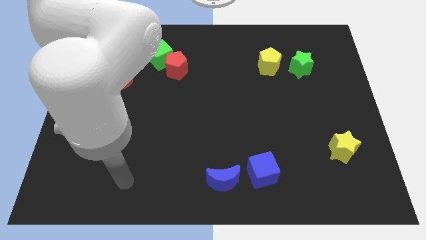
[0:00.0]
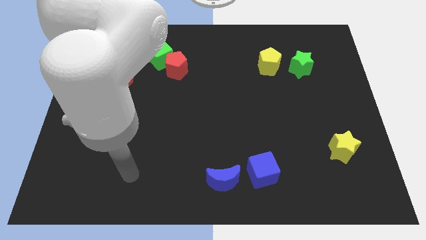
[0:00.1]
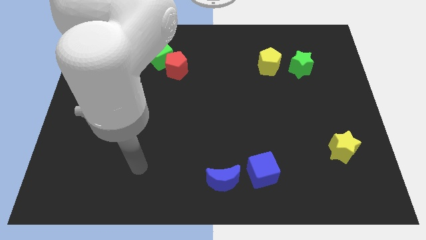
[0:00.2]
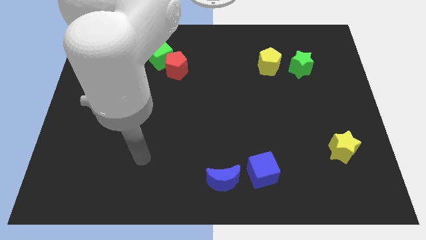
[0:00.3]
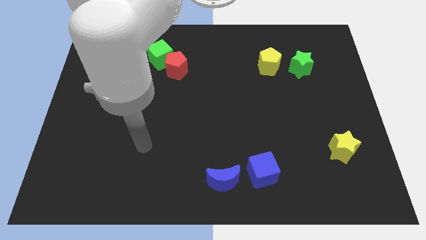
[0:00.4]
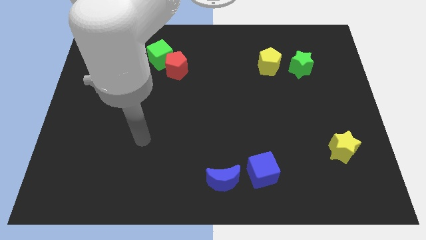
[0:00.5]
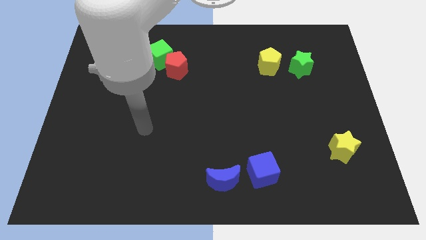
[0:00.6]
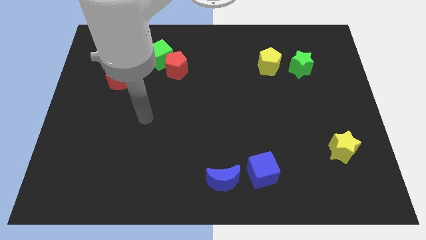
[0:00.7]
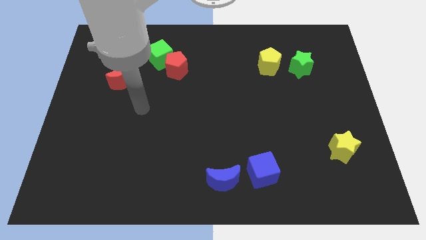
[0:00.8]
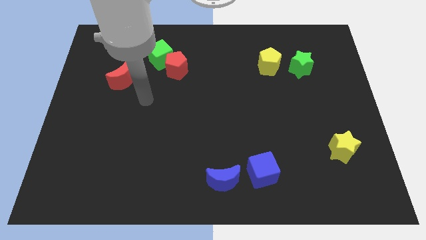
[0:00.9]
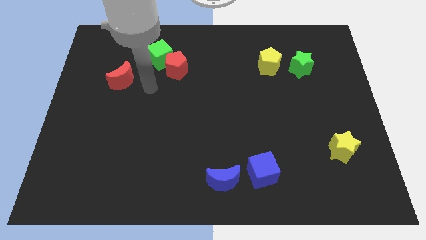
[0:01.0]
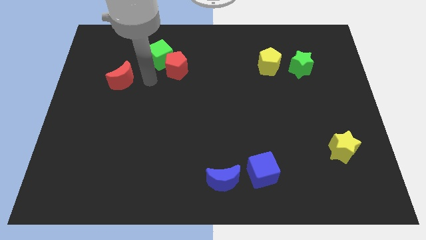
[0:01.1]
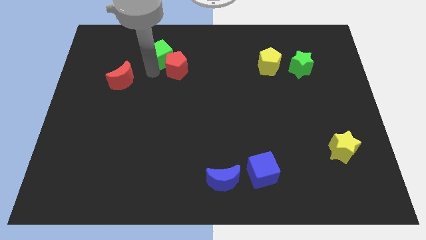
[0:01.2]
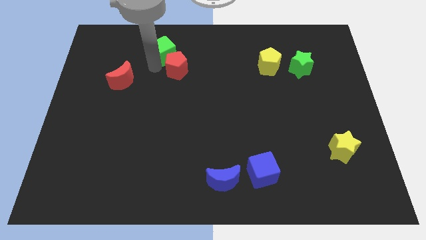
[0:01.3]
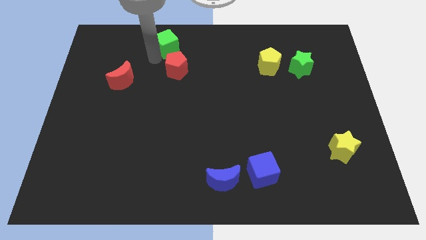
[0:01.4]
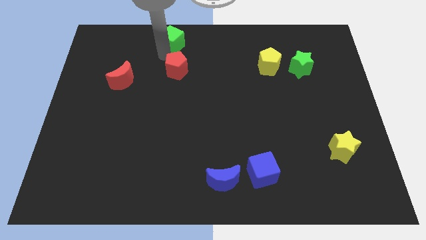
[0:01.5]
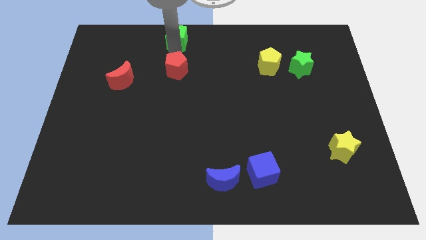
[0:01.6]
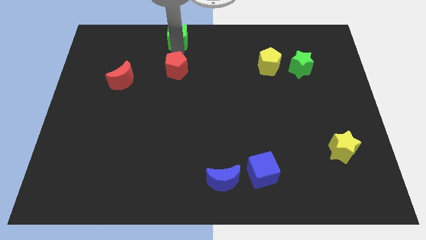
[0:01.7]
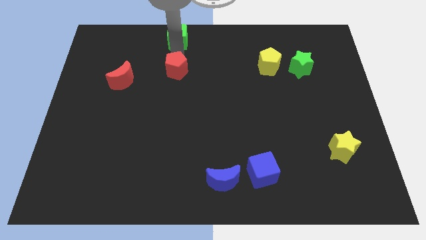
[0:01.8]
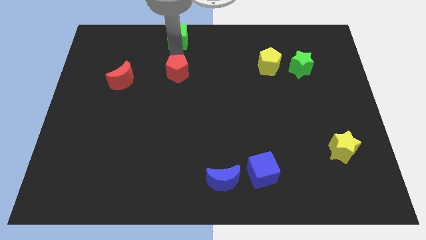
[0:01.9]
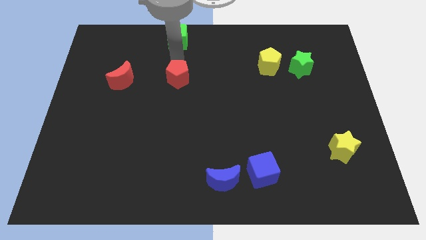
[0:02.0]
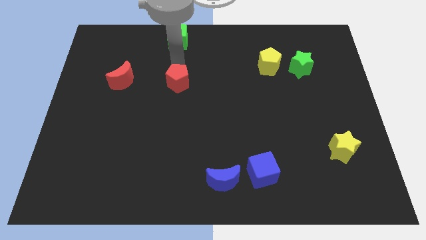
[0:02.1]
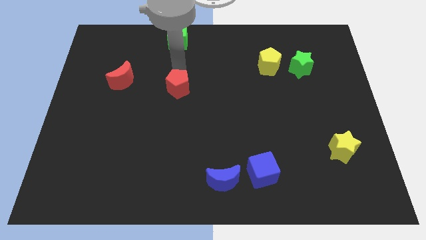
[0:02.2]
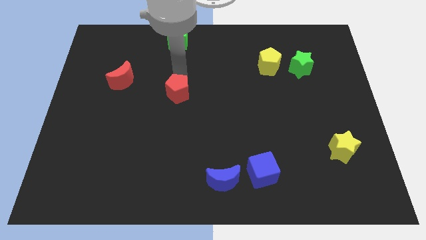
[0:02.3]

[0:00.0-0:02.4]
push the red pentagon downwards somewhat

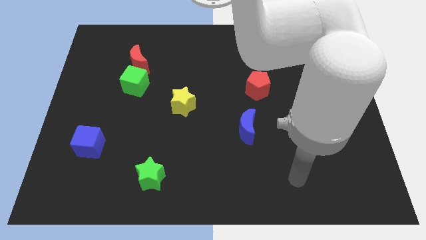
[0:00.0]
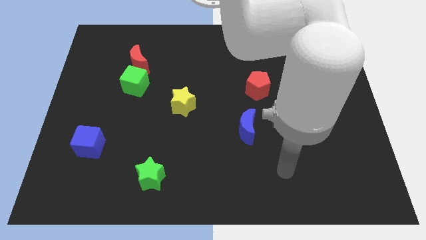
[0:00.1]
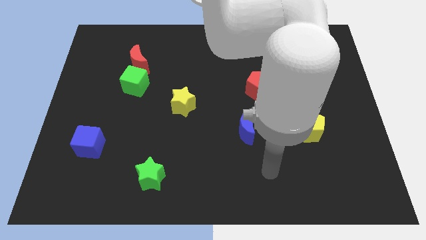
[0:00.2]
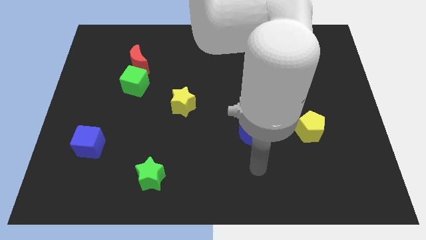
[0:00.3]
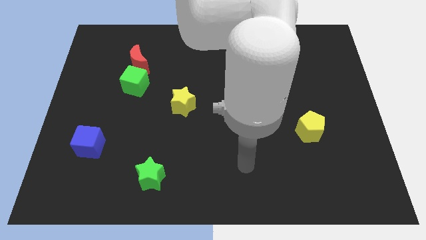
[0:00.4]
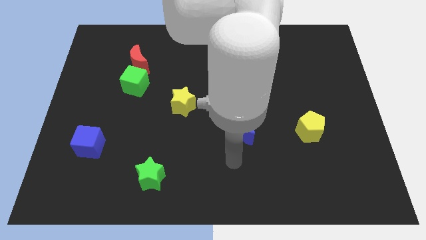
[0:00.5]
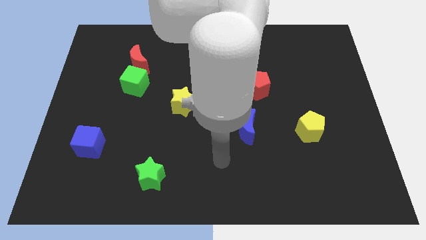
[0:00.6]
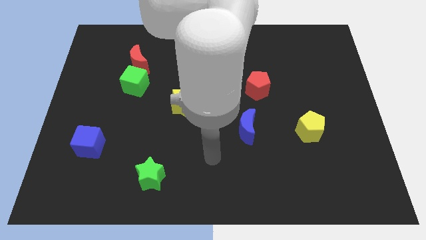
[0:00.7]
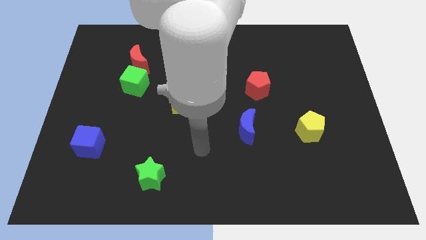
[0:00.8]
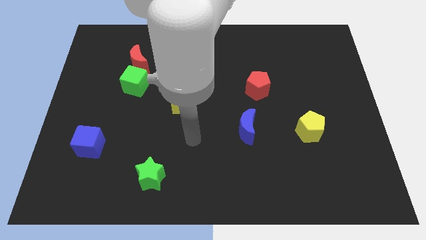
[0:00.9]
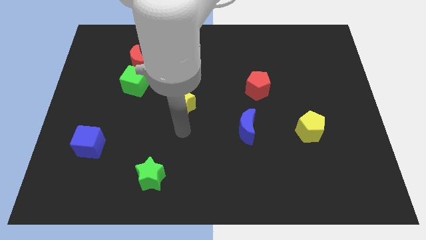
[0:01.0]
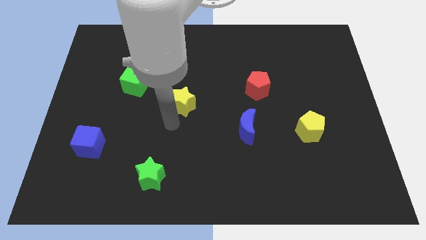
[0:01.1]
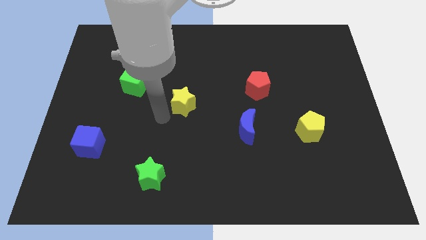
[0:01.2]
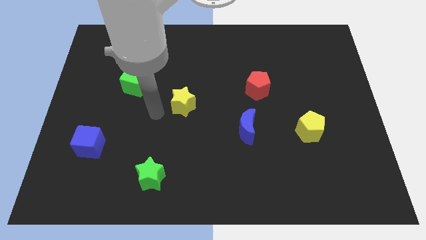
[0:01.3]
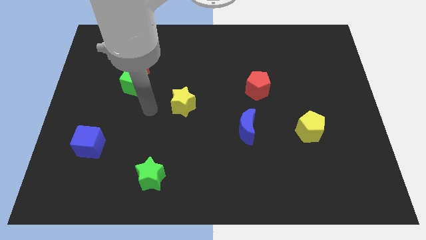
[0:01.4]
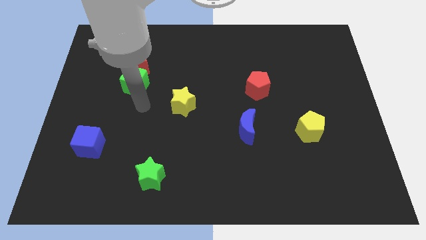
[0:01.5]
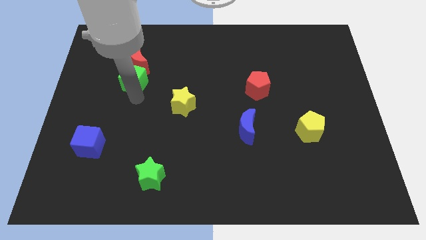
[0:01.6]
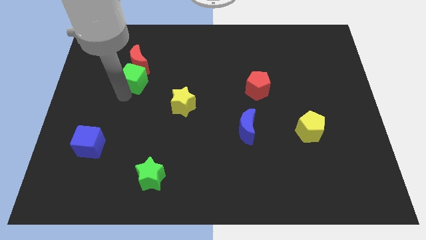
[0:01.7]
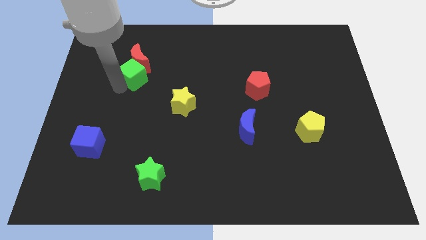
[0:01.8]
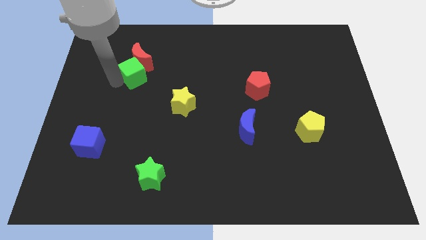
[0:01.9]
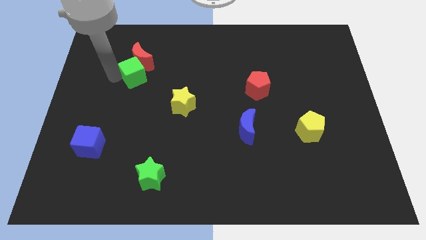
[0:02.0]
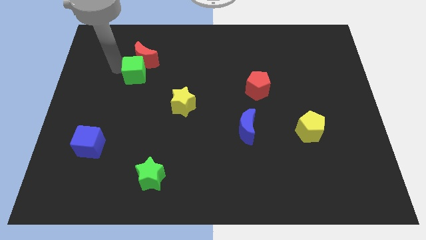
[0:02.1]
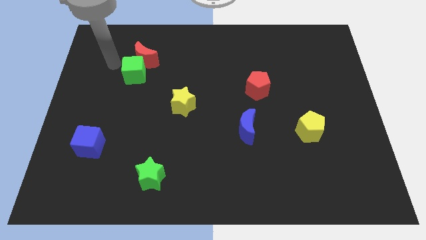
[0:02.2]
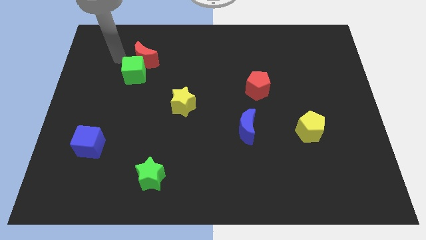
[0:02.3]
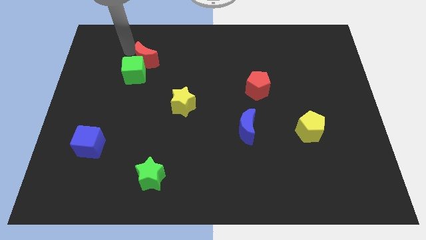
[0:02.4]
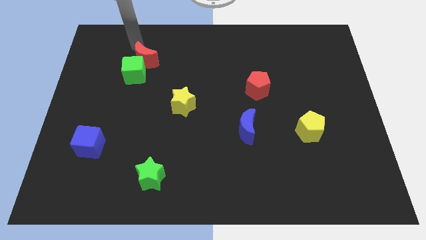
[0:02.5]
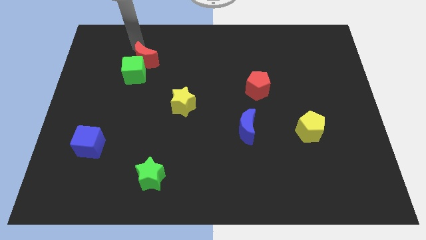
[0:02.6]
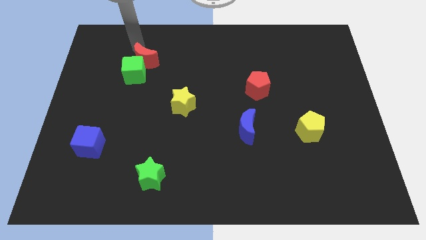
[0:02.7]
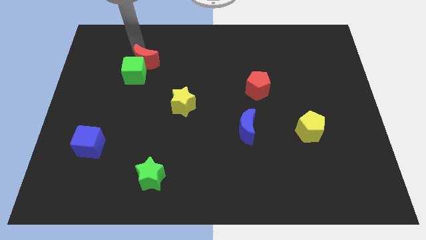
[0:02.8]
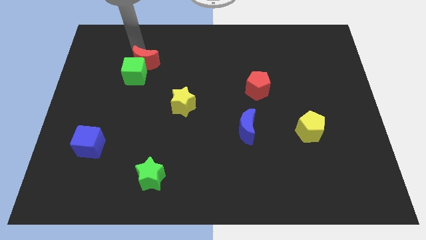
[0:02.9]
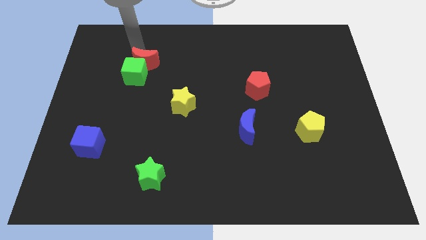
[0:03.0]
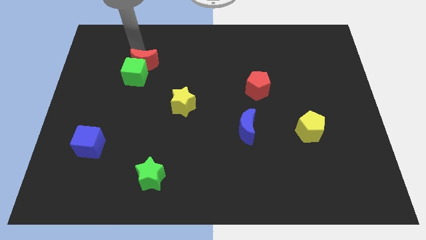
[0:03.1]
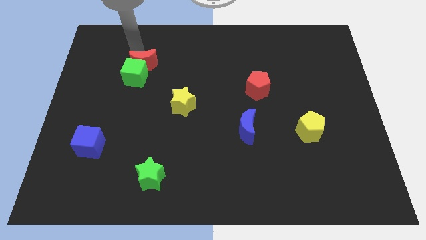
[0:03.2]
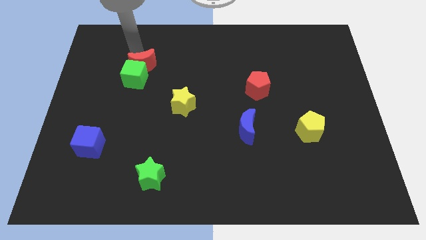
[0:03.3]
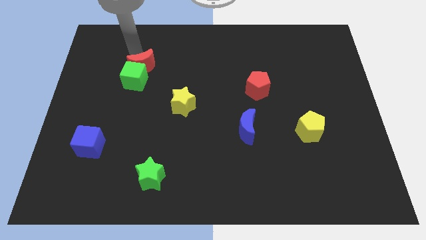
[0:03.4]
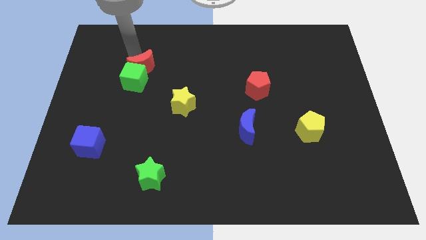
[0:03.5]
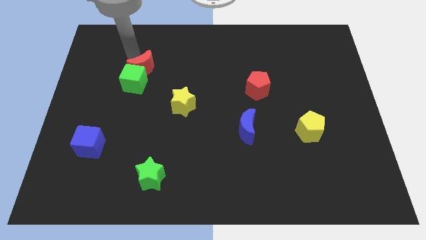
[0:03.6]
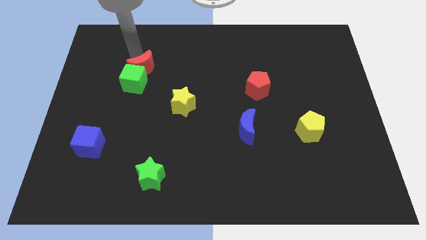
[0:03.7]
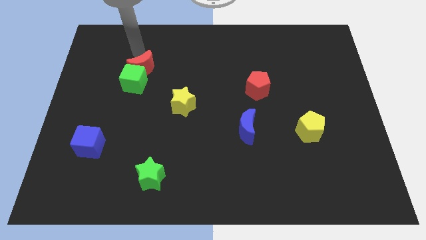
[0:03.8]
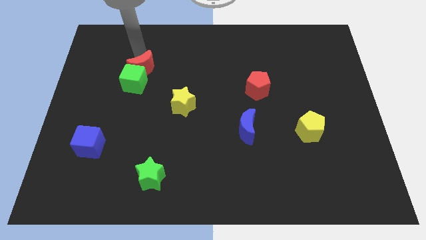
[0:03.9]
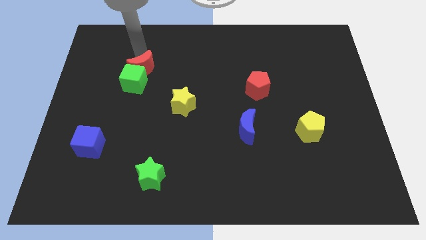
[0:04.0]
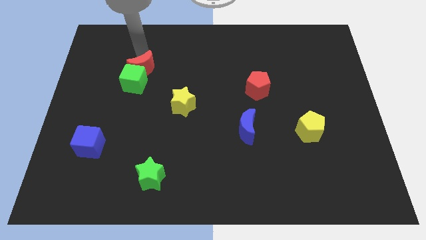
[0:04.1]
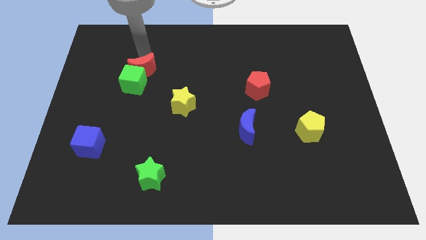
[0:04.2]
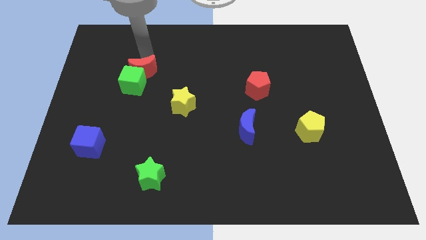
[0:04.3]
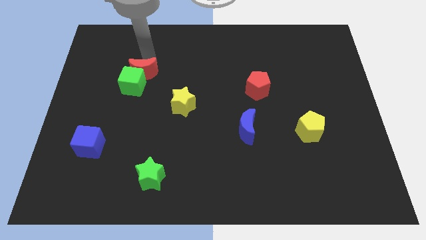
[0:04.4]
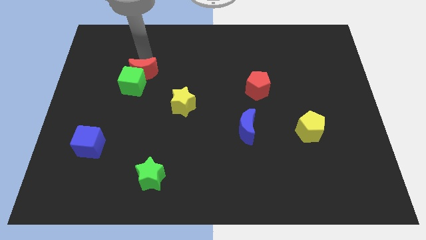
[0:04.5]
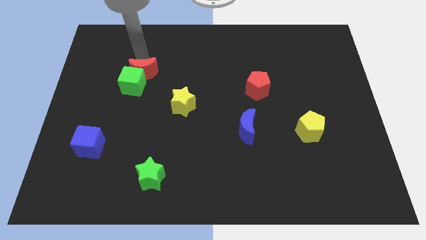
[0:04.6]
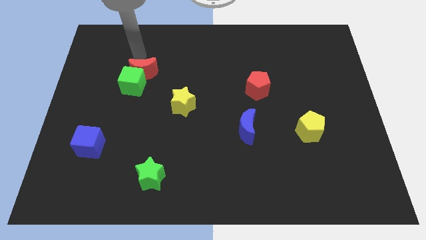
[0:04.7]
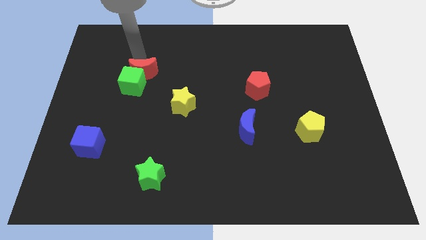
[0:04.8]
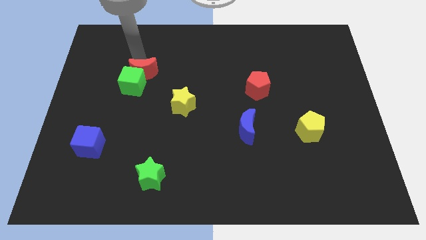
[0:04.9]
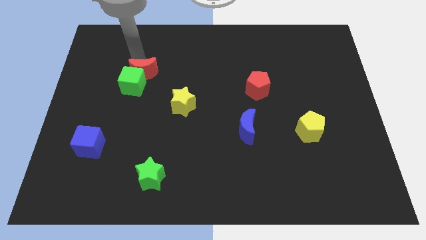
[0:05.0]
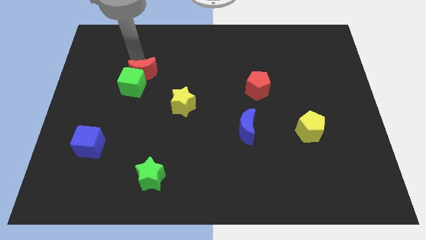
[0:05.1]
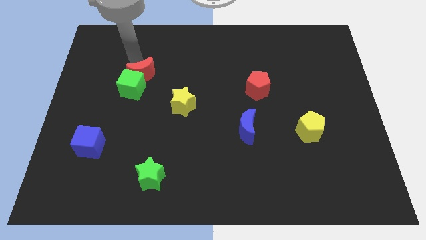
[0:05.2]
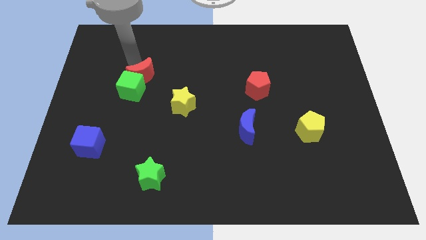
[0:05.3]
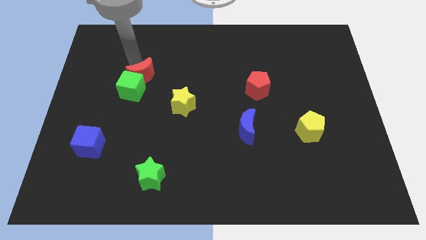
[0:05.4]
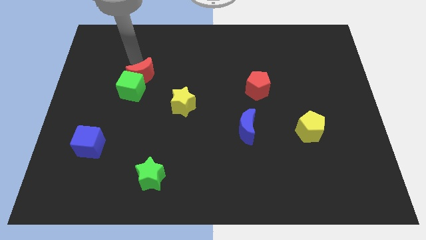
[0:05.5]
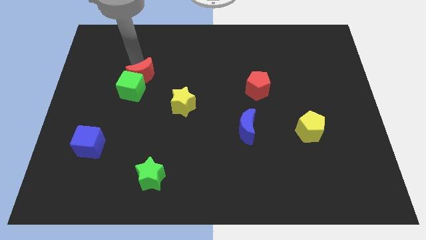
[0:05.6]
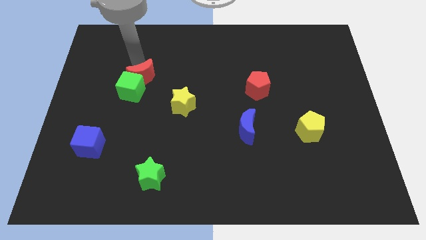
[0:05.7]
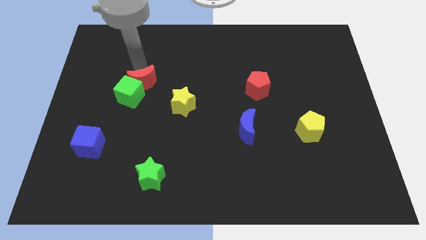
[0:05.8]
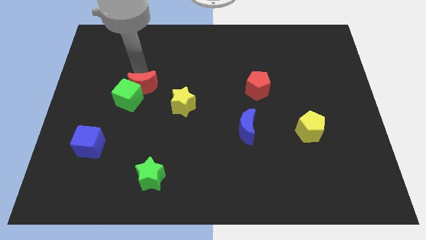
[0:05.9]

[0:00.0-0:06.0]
slide the red moon a bit downwards
